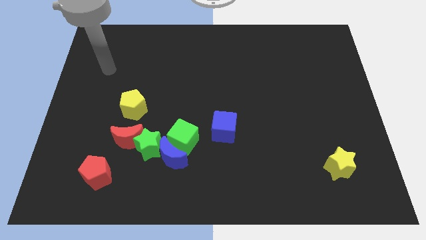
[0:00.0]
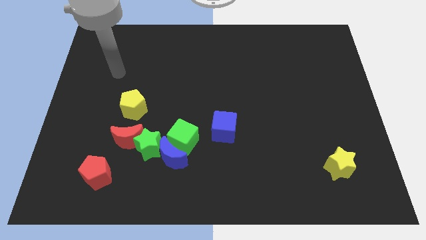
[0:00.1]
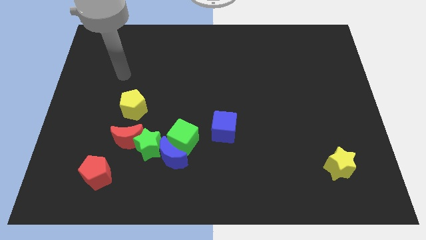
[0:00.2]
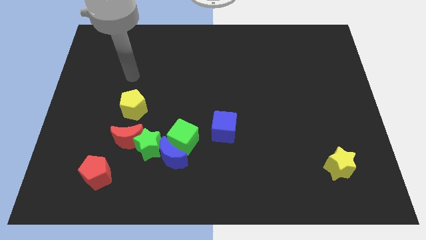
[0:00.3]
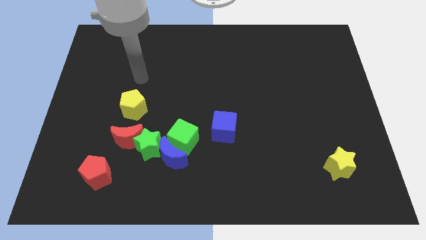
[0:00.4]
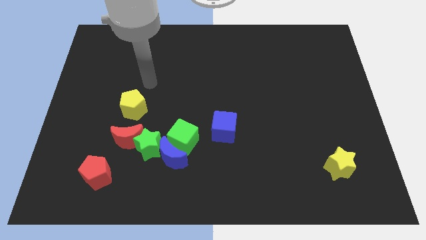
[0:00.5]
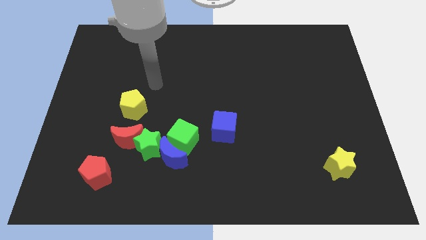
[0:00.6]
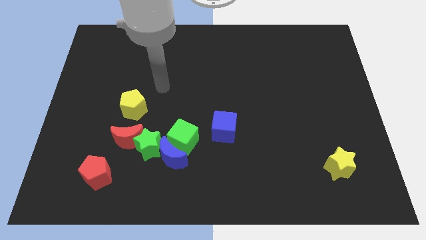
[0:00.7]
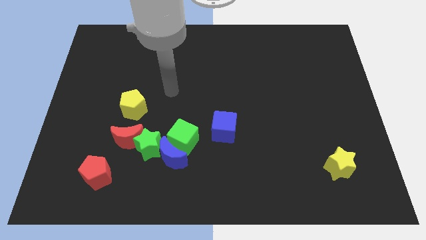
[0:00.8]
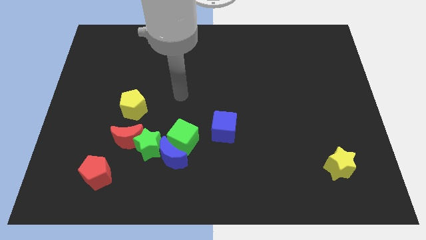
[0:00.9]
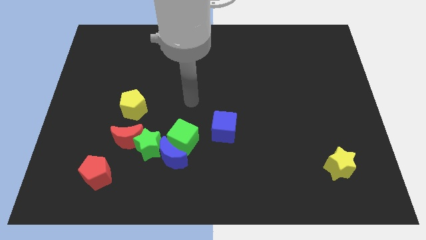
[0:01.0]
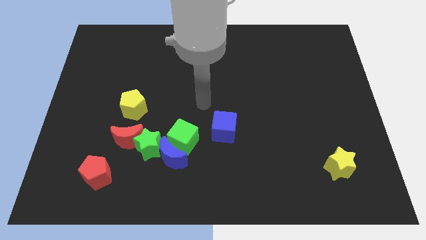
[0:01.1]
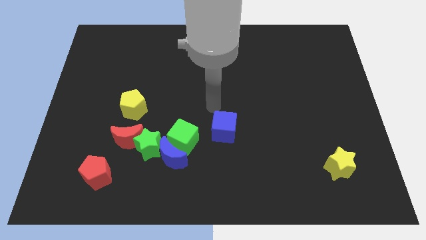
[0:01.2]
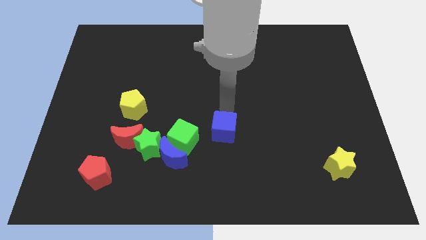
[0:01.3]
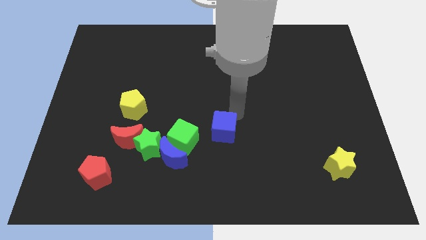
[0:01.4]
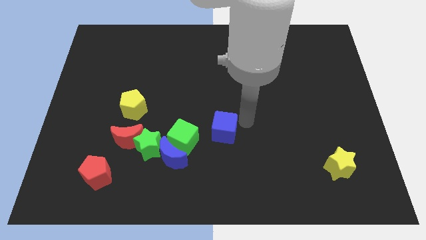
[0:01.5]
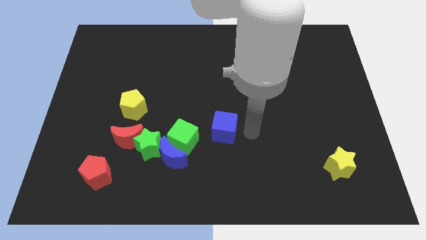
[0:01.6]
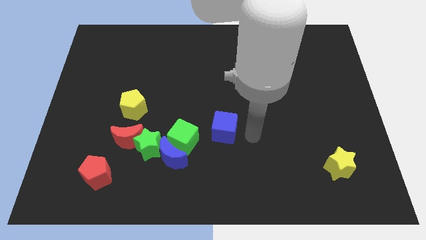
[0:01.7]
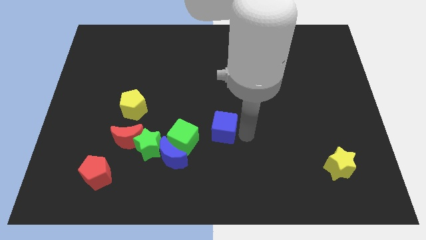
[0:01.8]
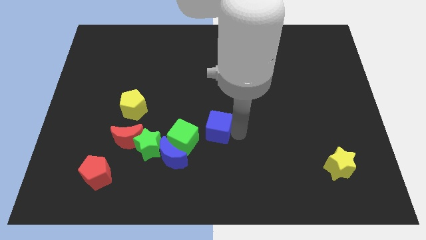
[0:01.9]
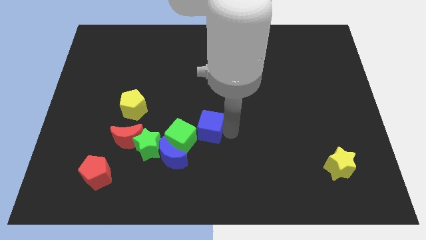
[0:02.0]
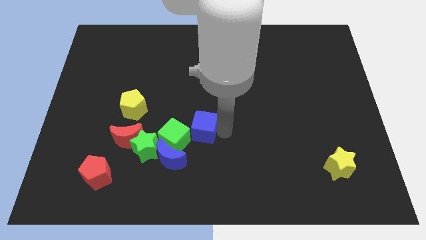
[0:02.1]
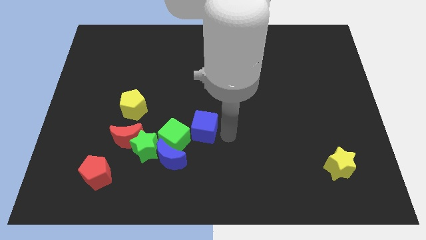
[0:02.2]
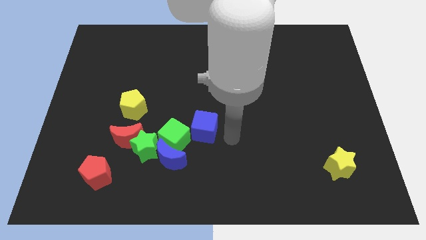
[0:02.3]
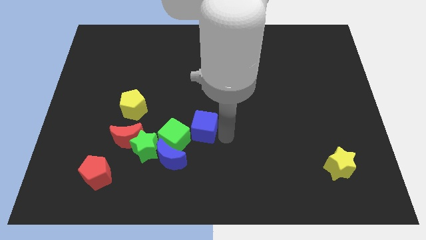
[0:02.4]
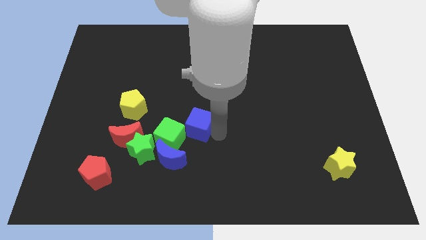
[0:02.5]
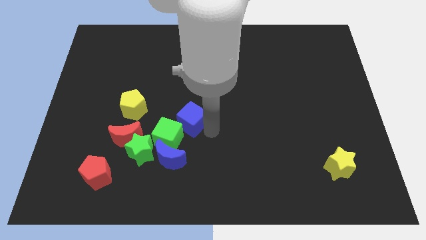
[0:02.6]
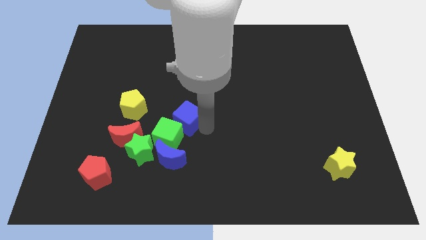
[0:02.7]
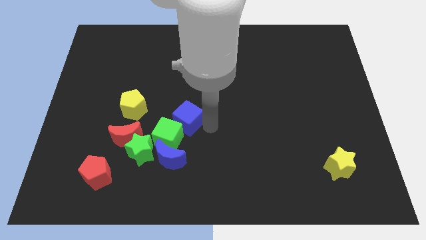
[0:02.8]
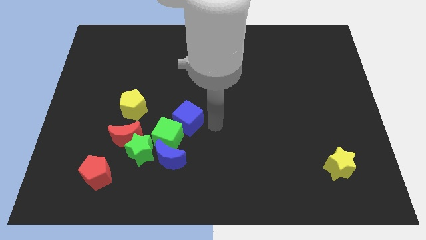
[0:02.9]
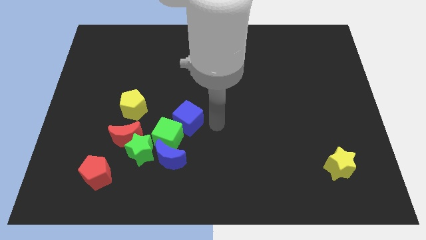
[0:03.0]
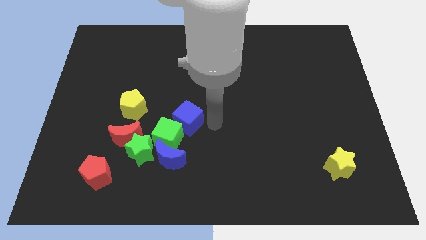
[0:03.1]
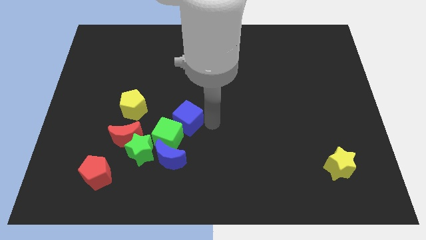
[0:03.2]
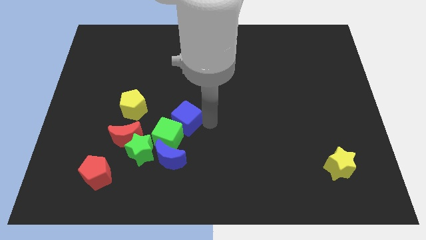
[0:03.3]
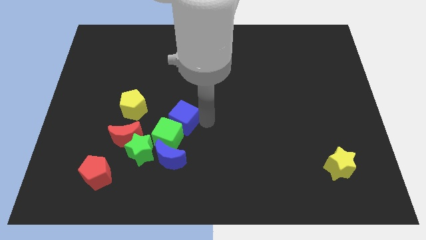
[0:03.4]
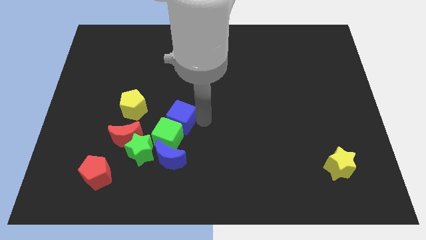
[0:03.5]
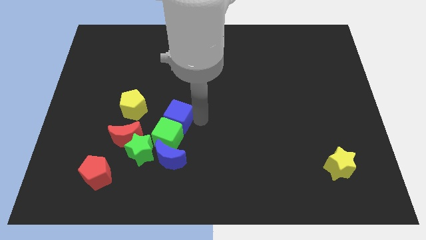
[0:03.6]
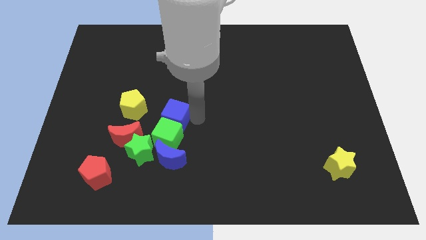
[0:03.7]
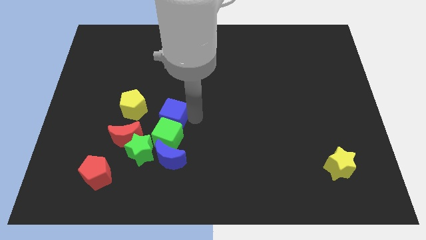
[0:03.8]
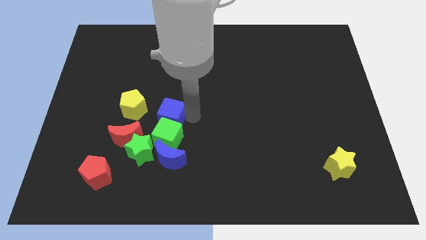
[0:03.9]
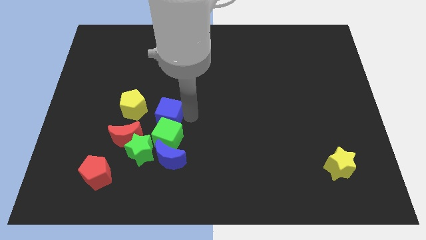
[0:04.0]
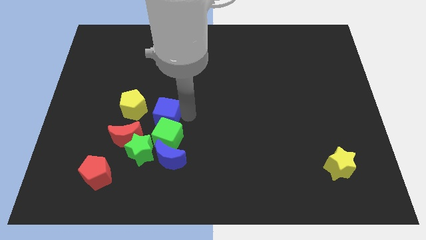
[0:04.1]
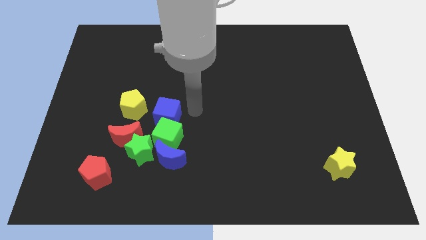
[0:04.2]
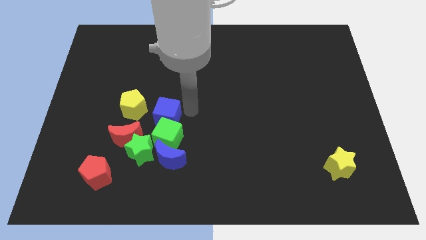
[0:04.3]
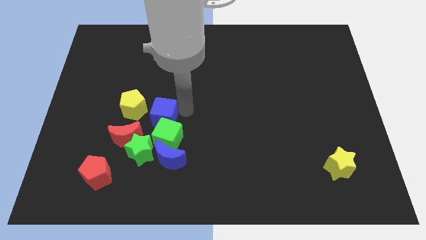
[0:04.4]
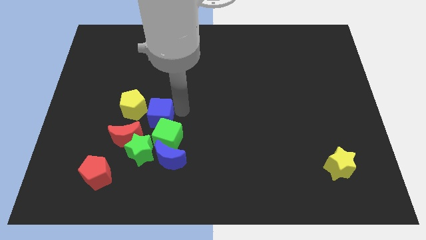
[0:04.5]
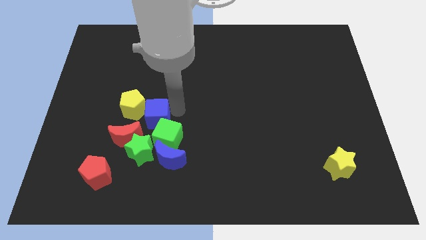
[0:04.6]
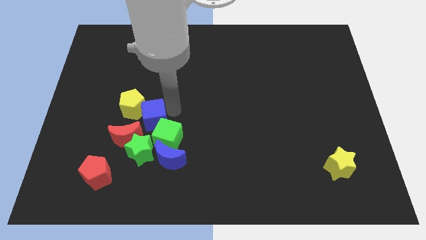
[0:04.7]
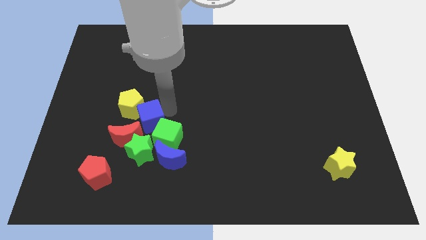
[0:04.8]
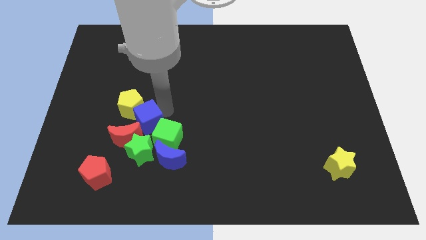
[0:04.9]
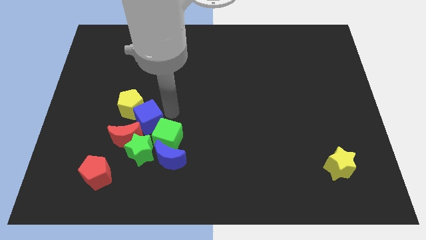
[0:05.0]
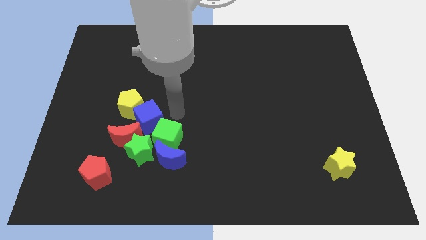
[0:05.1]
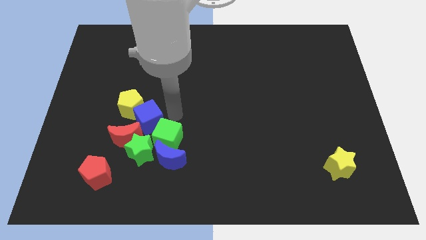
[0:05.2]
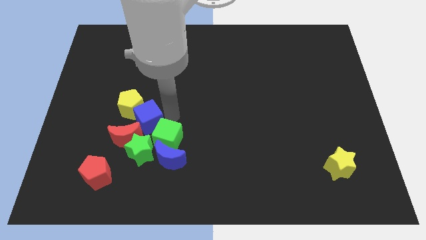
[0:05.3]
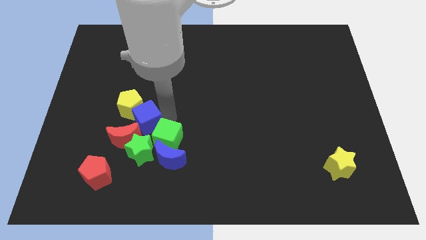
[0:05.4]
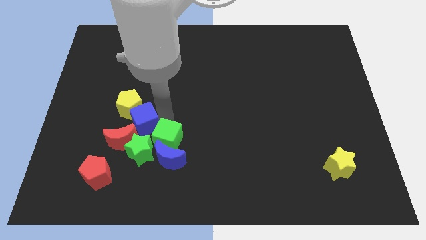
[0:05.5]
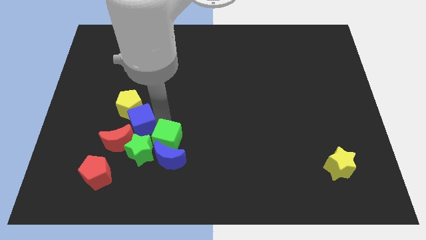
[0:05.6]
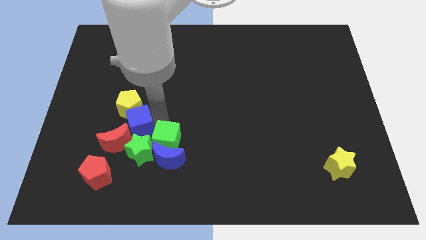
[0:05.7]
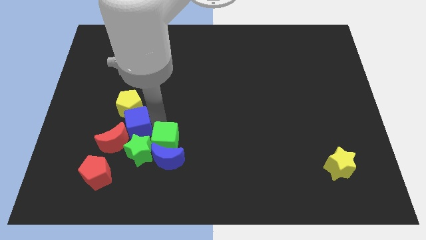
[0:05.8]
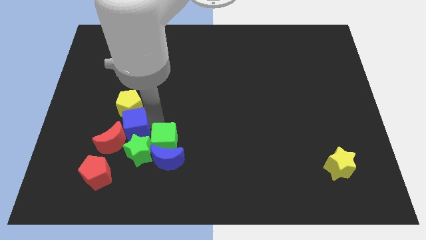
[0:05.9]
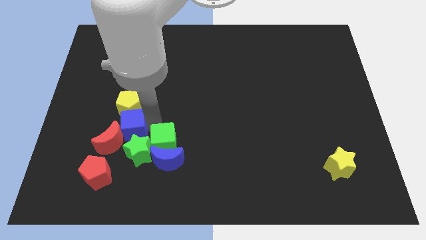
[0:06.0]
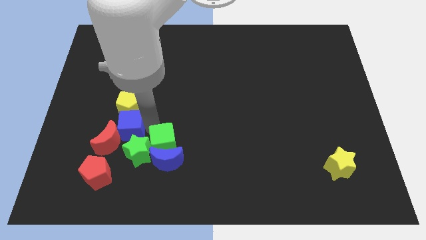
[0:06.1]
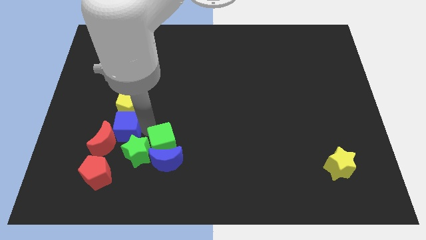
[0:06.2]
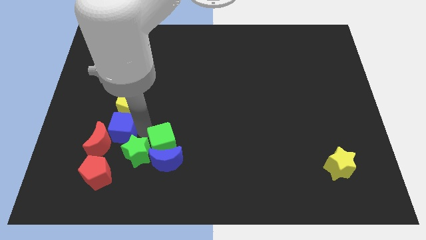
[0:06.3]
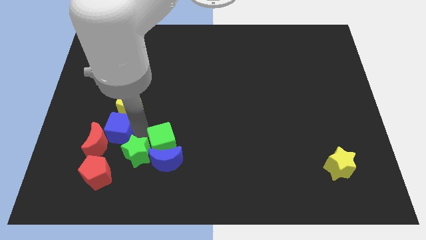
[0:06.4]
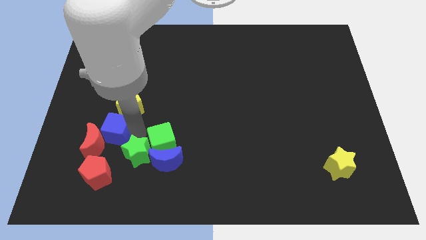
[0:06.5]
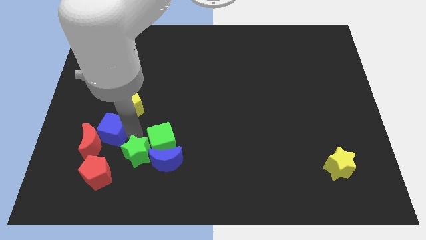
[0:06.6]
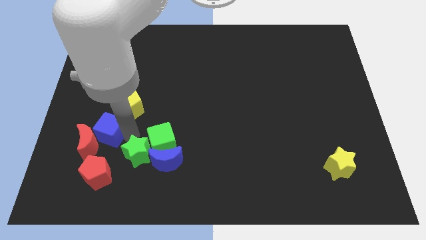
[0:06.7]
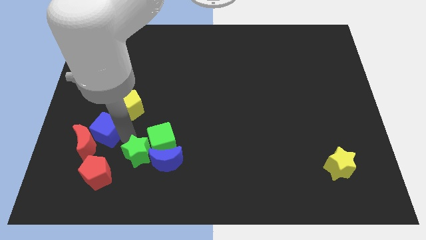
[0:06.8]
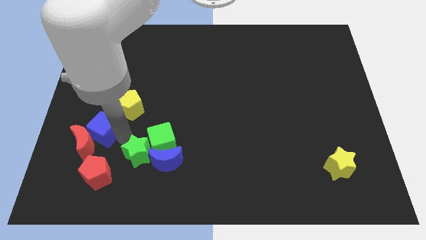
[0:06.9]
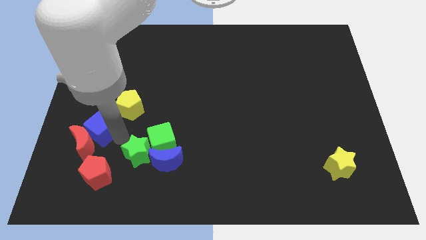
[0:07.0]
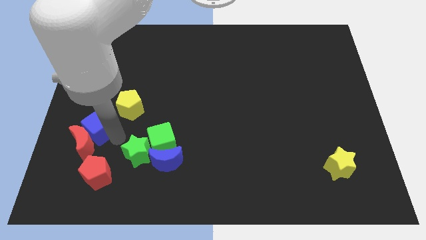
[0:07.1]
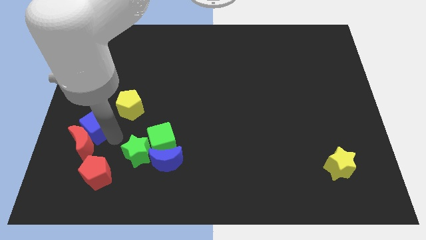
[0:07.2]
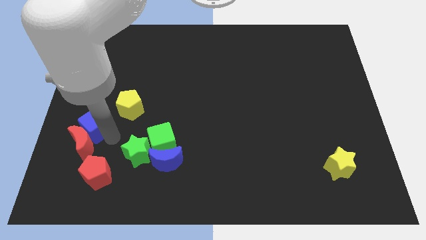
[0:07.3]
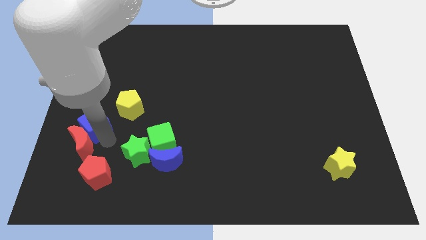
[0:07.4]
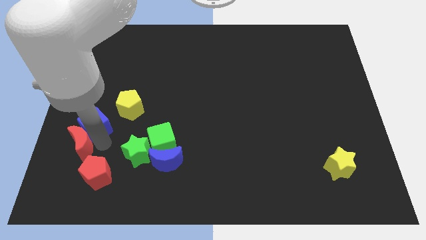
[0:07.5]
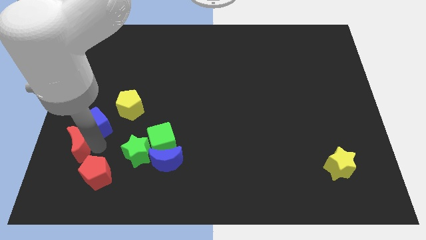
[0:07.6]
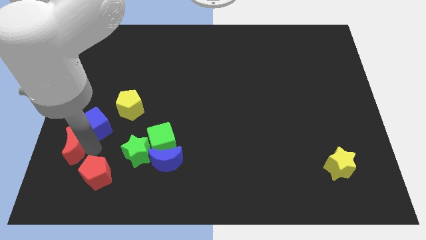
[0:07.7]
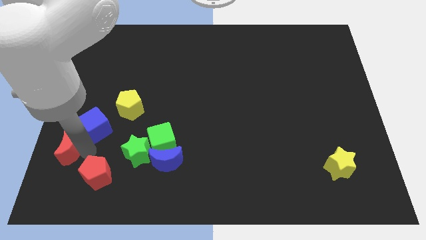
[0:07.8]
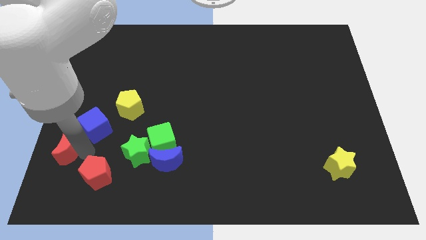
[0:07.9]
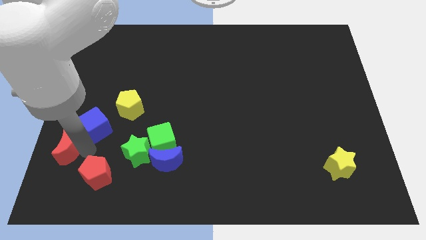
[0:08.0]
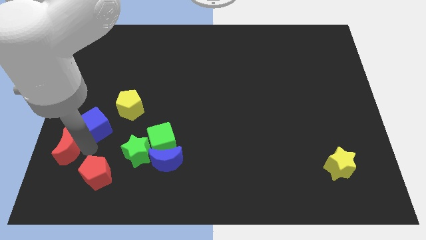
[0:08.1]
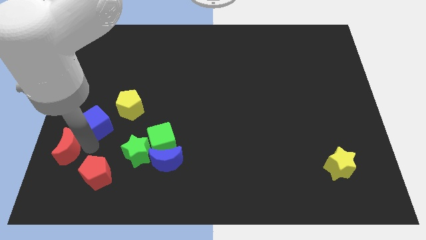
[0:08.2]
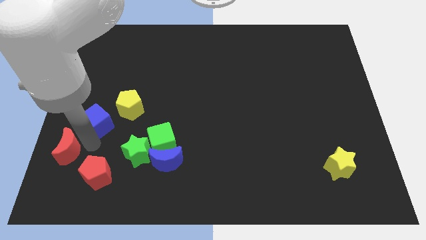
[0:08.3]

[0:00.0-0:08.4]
put the blue cube just left of the yellow pentagon
